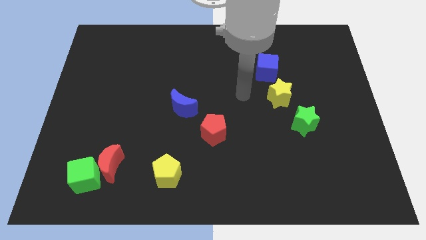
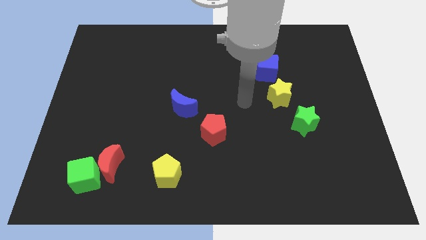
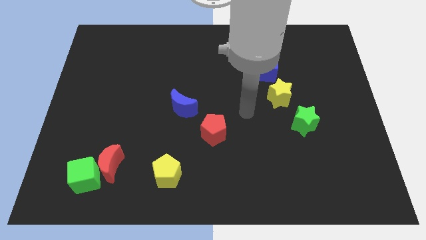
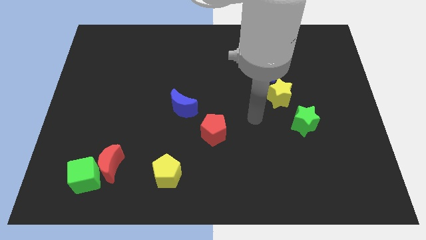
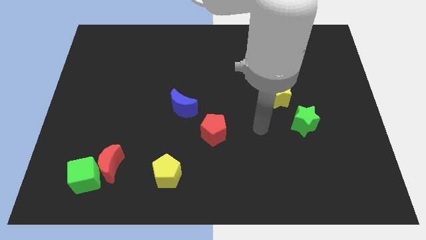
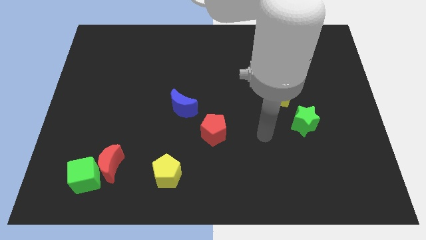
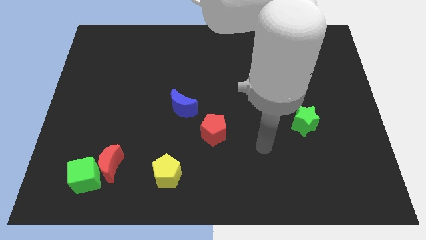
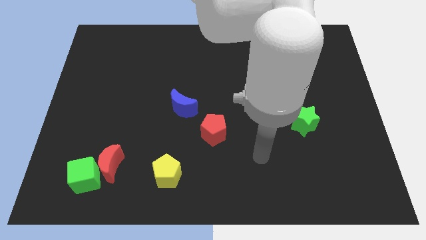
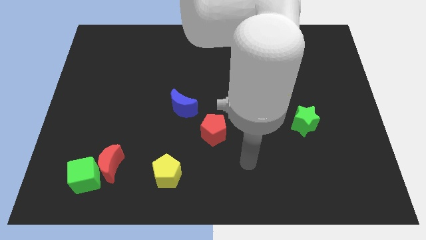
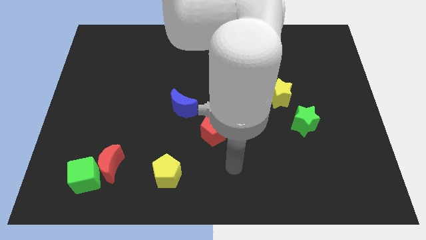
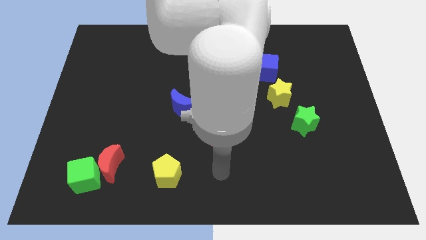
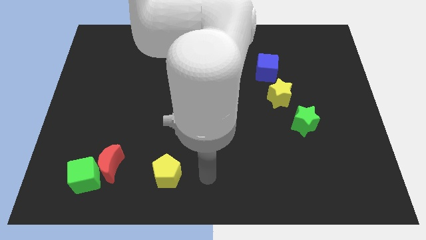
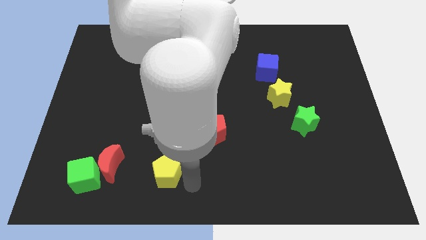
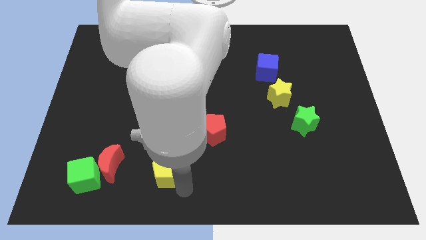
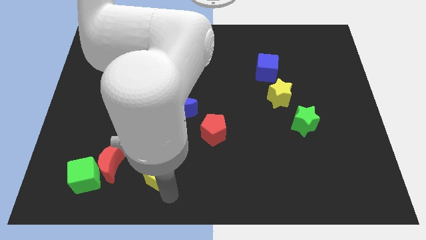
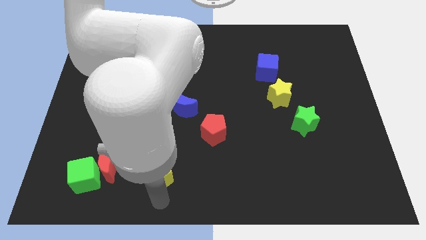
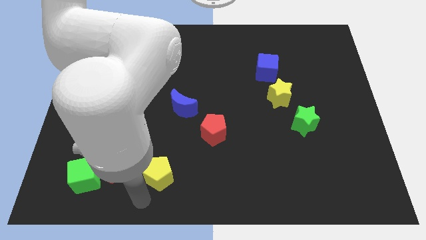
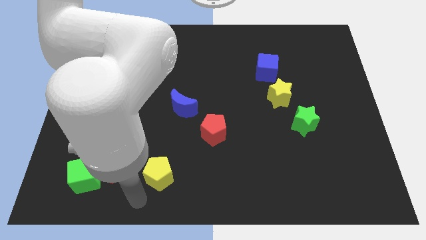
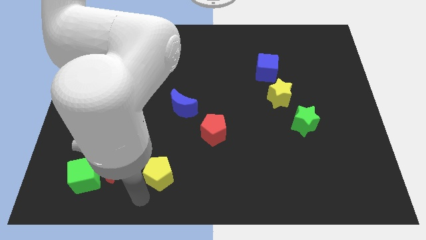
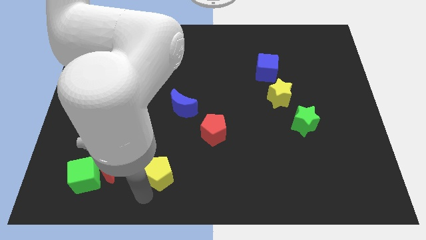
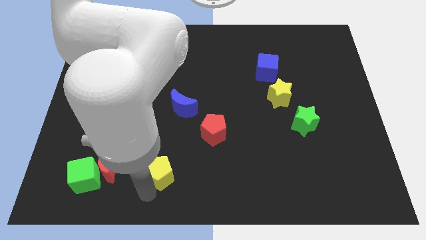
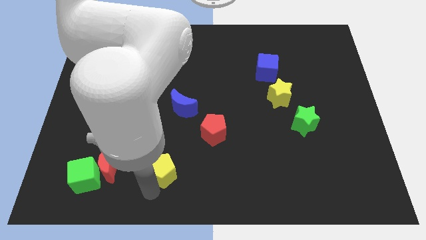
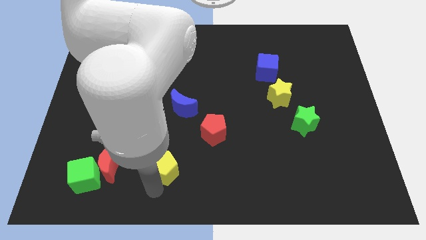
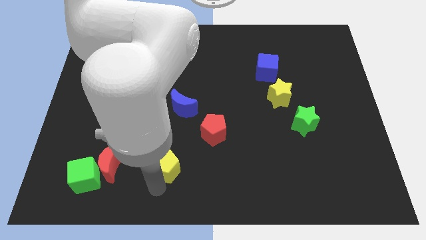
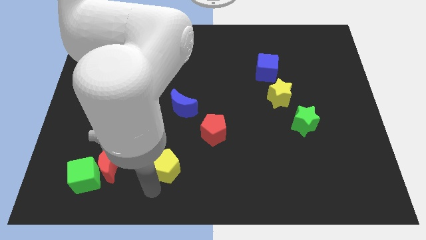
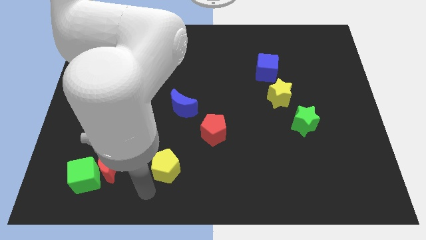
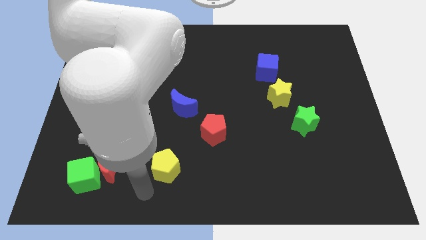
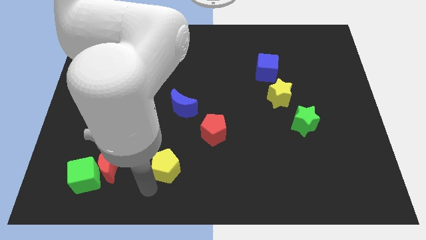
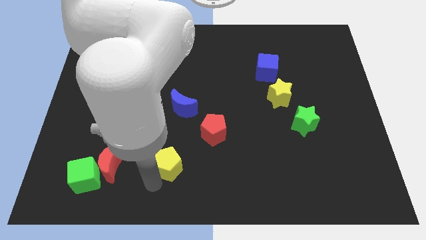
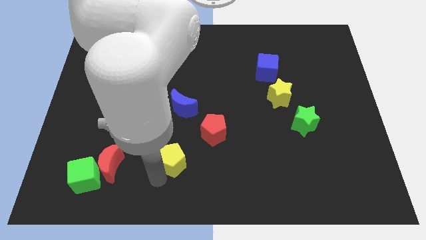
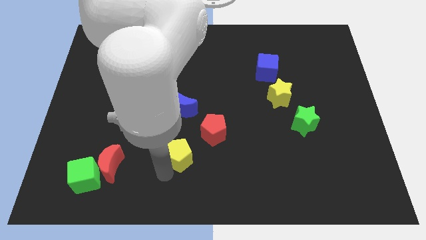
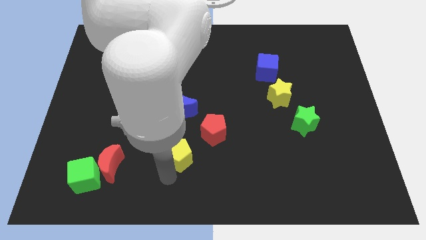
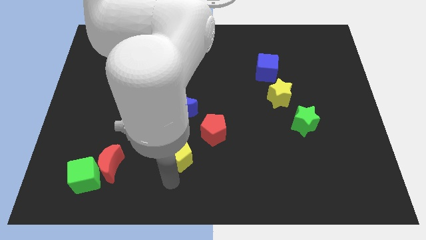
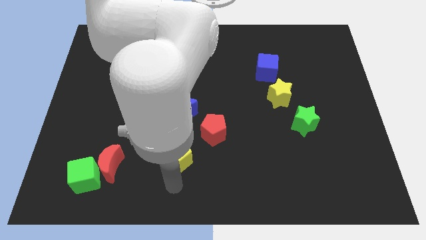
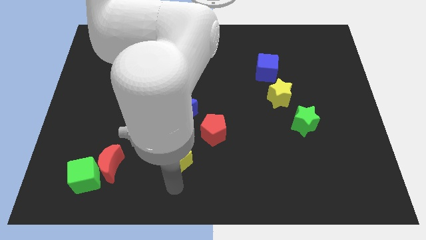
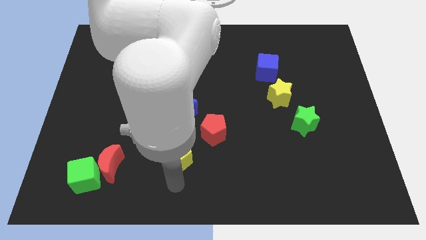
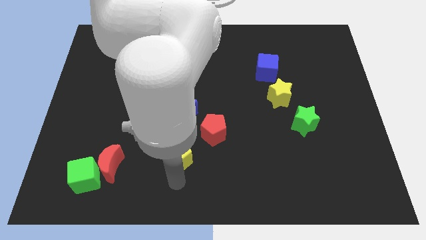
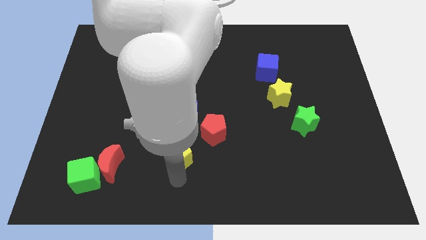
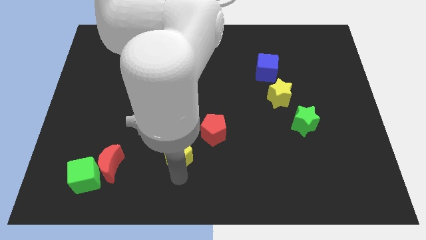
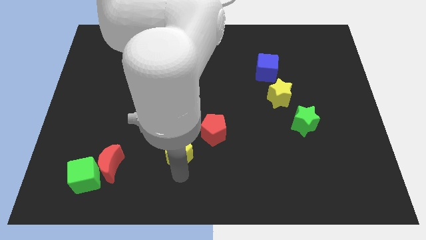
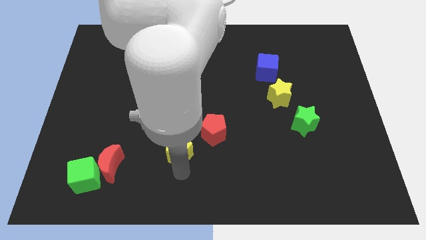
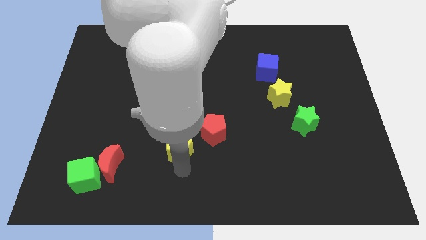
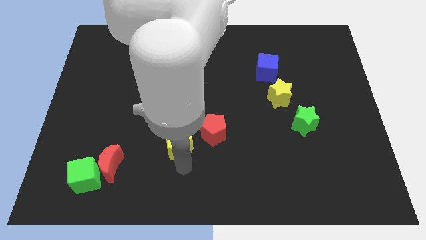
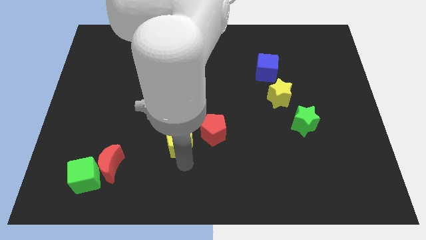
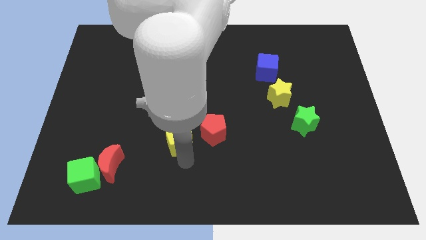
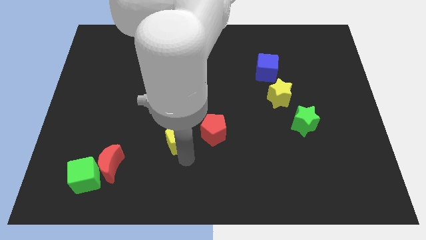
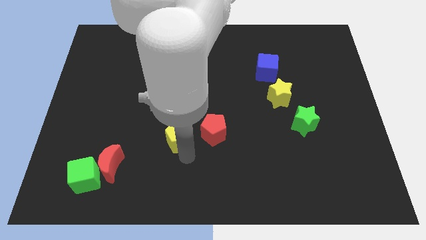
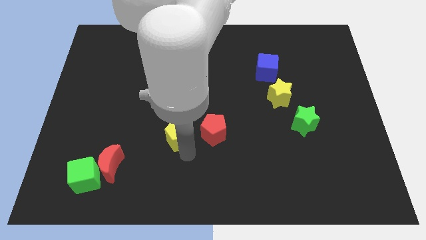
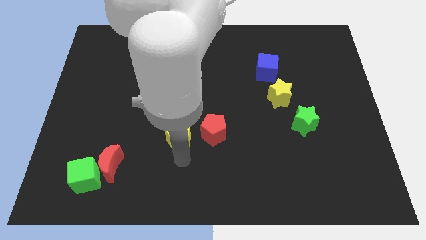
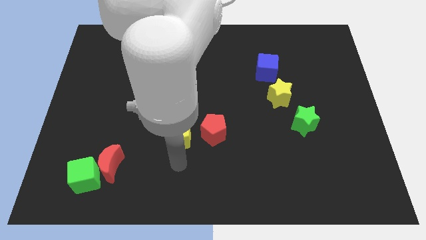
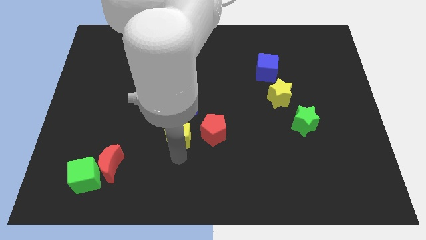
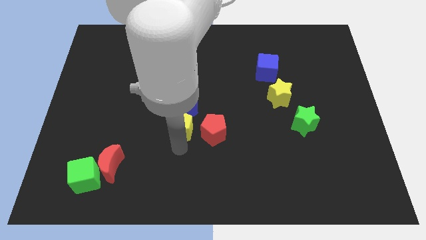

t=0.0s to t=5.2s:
push the yellow pentagon close to the blue moon

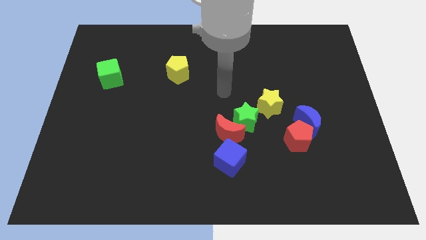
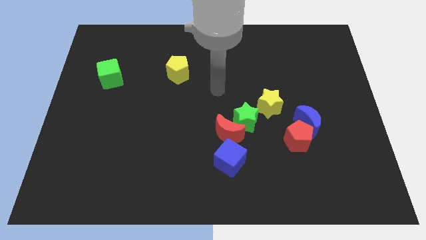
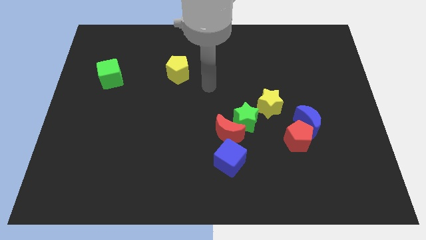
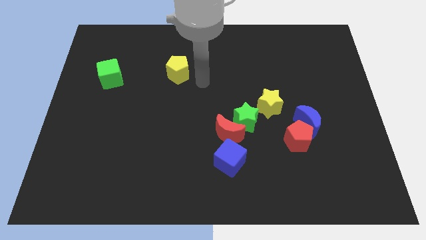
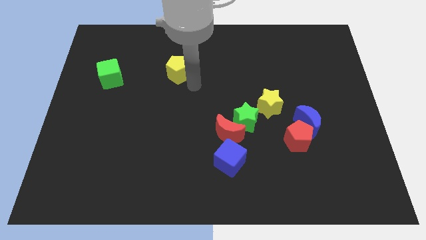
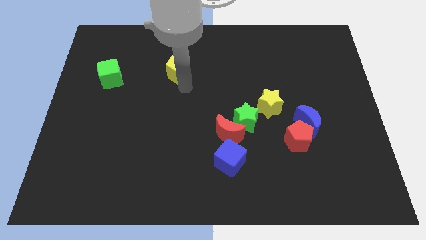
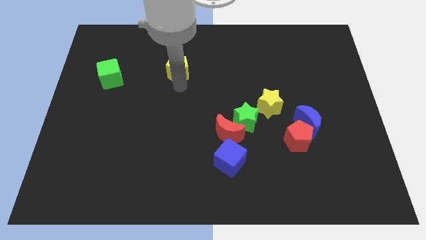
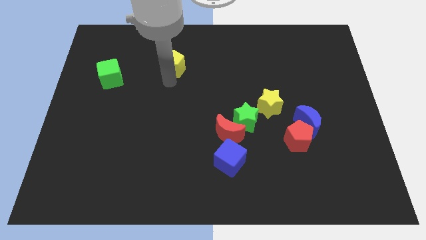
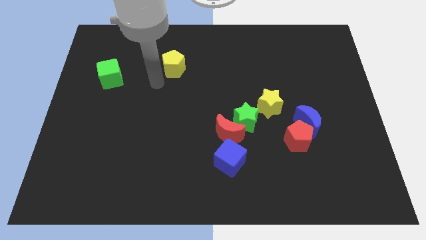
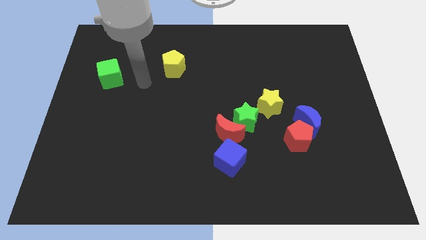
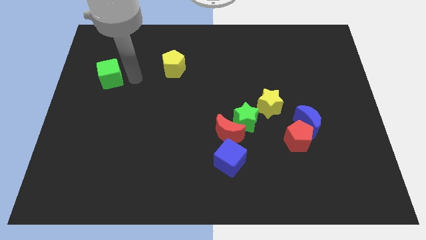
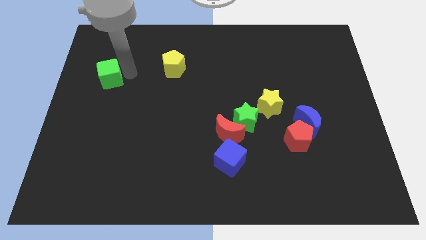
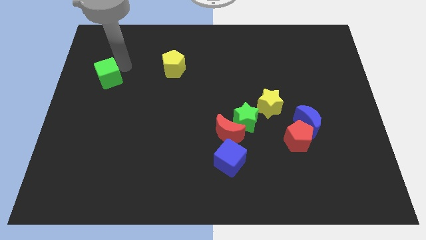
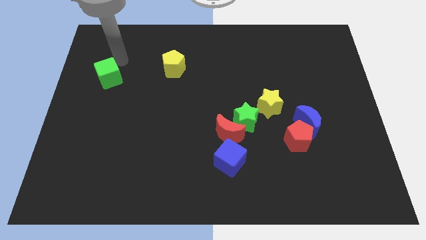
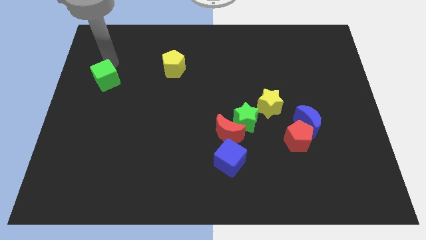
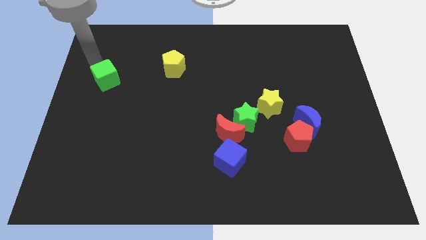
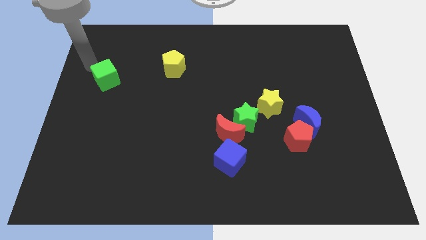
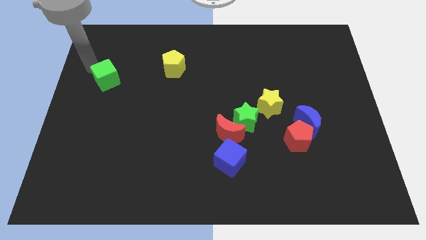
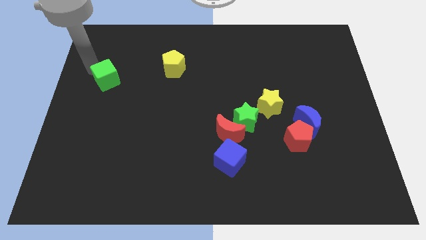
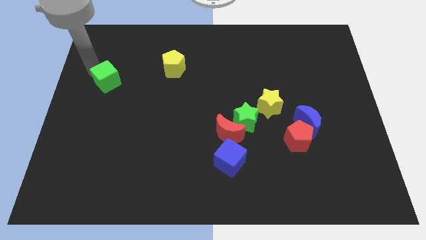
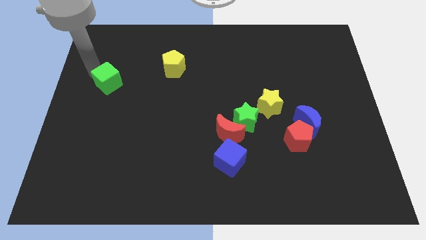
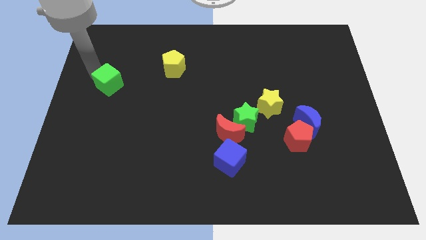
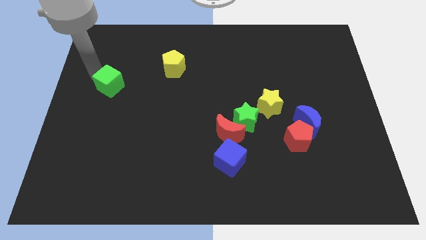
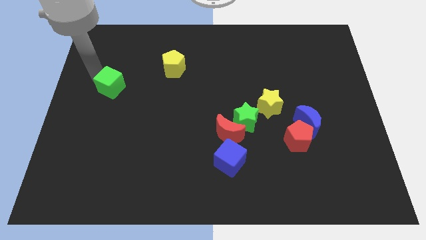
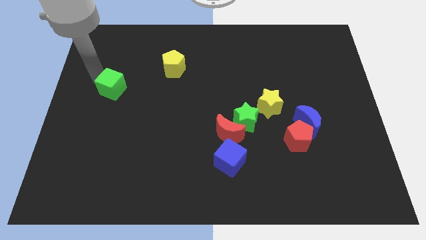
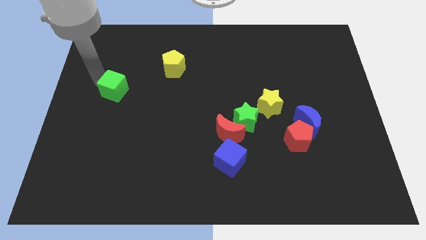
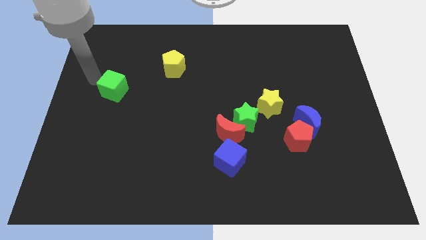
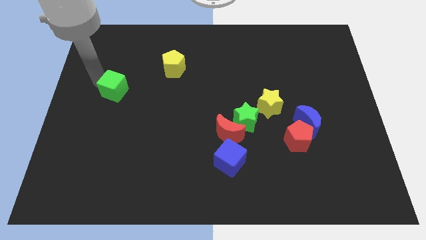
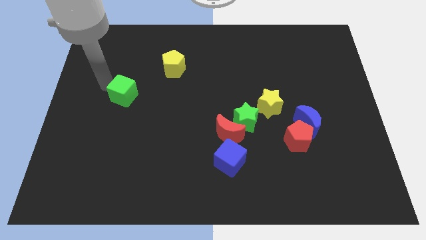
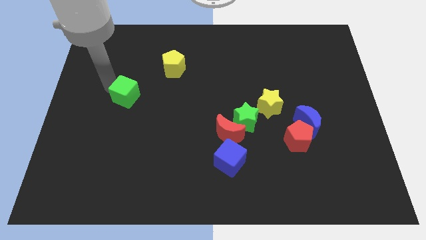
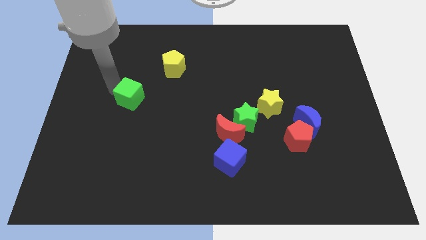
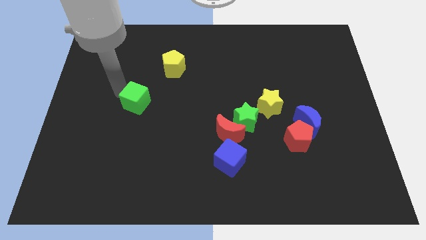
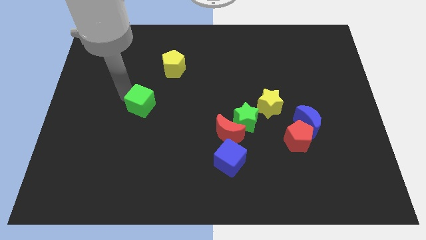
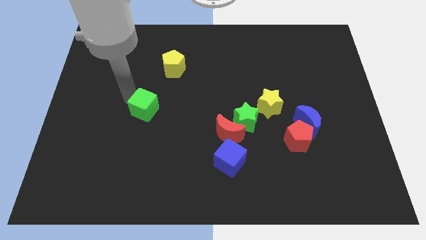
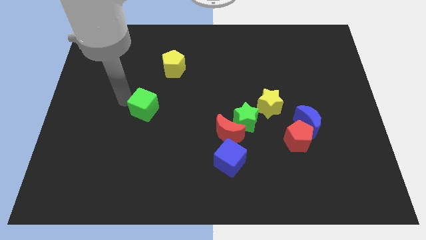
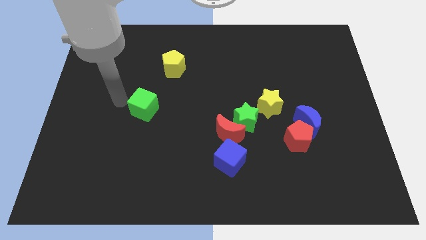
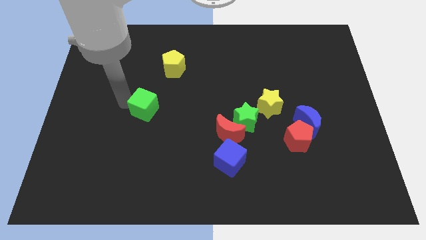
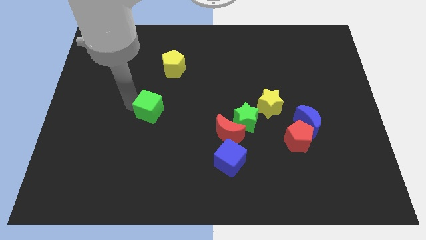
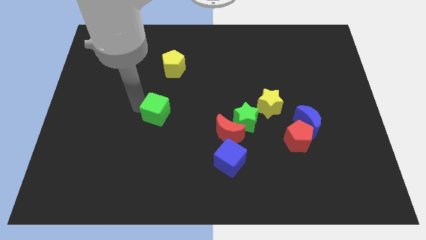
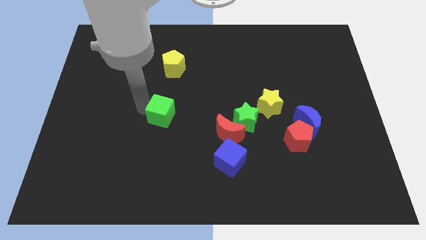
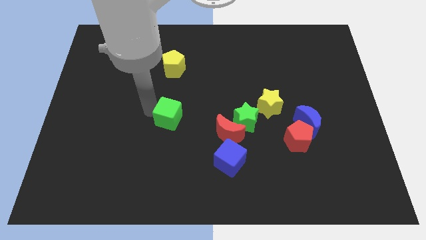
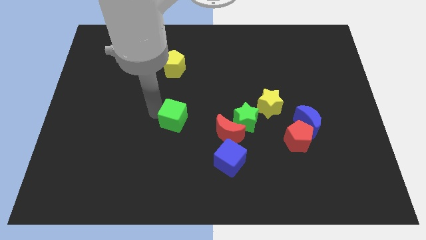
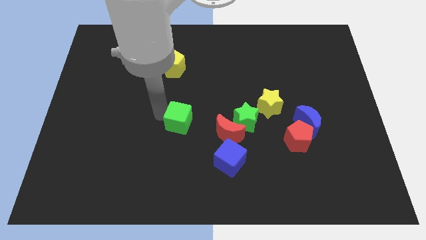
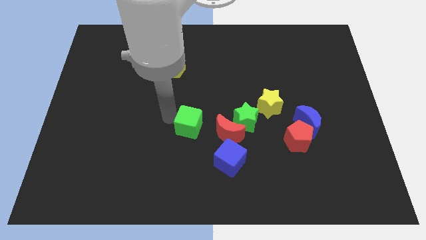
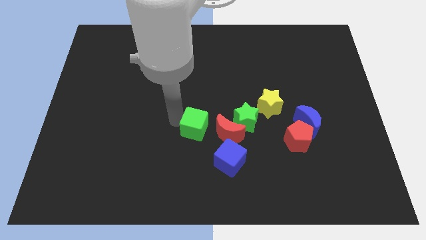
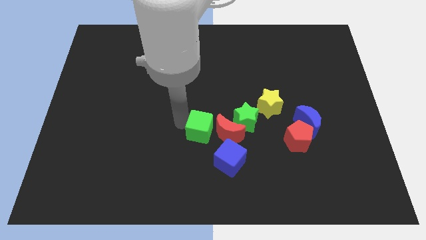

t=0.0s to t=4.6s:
move the green cube close to the red moon
